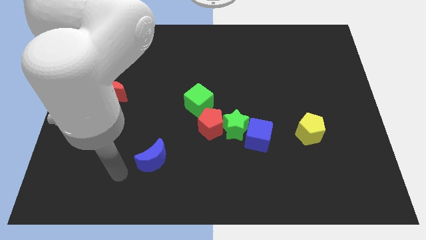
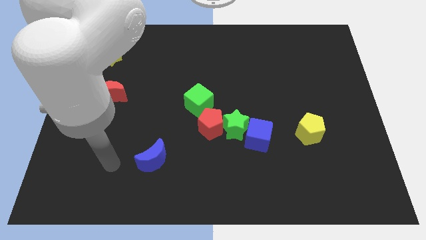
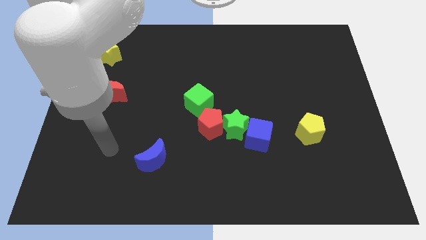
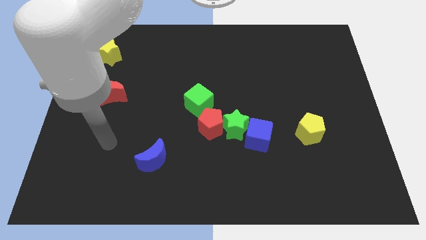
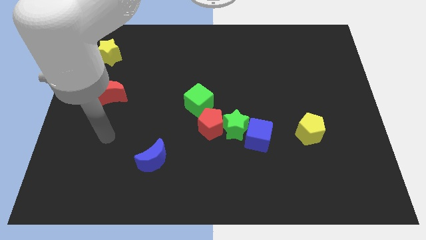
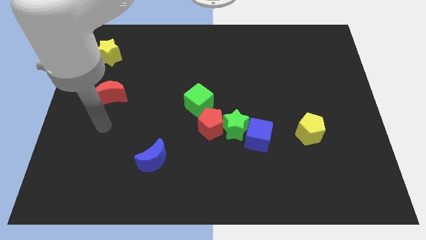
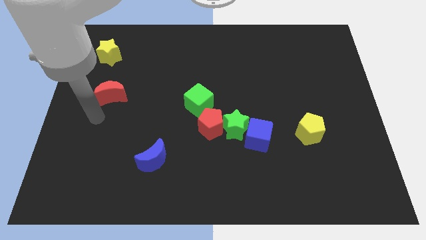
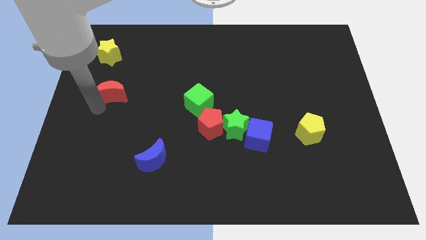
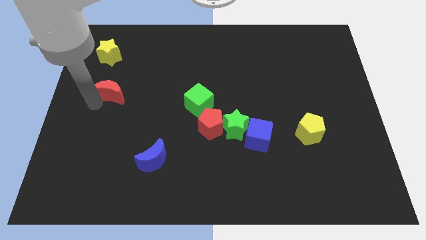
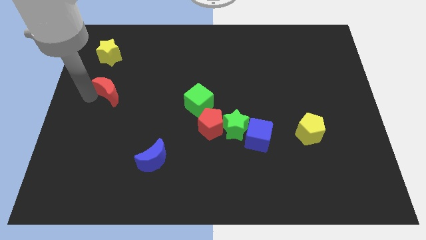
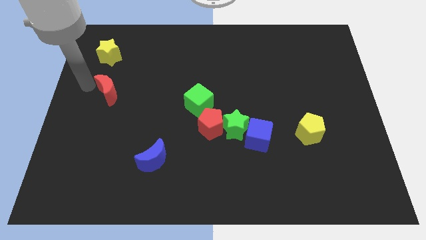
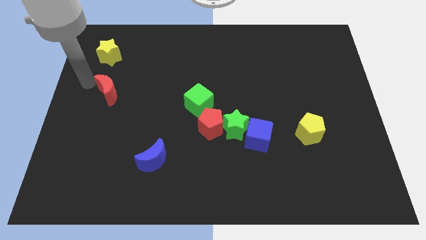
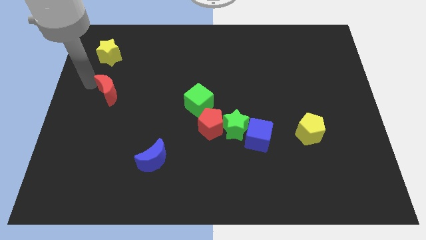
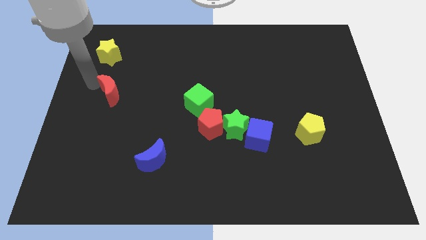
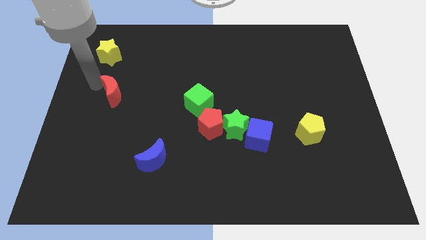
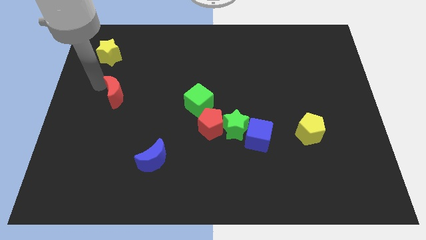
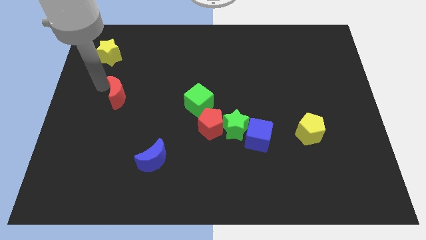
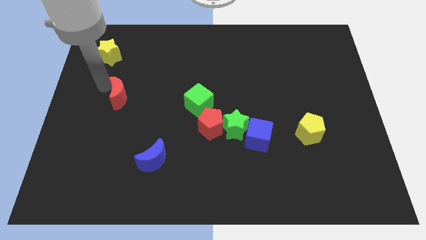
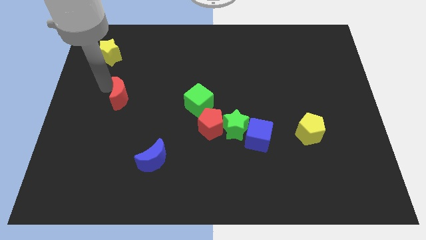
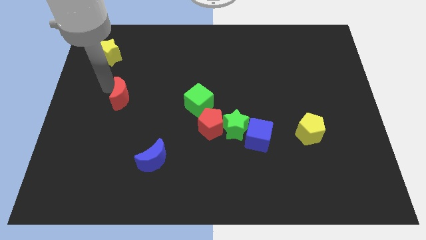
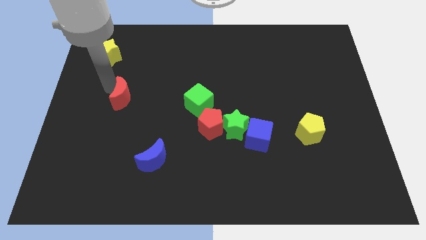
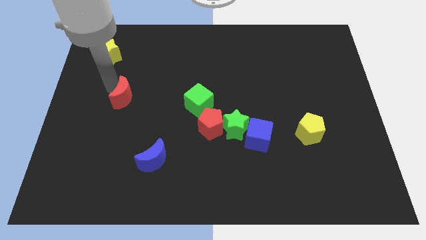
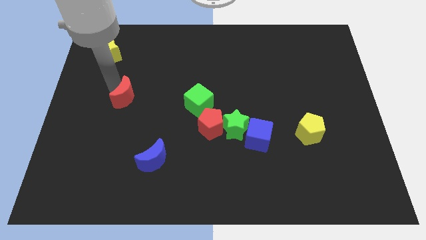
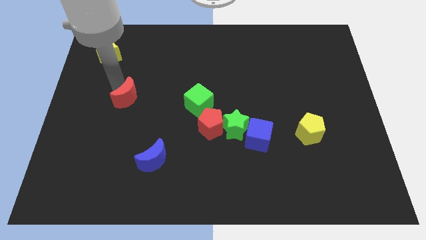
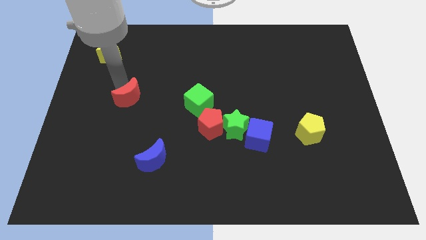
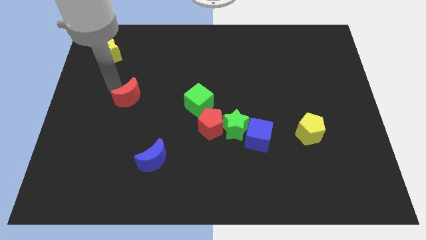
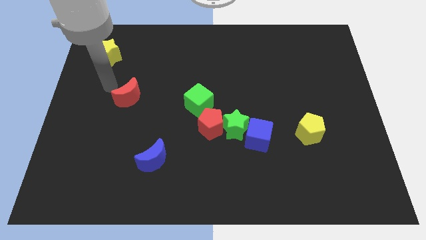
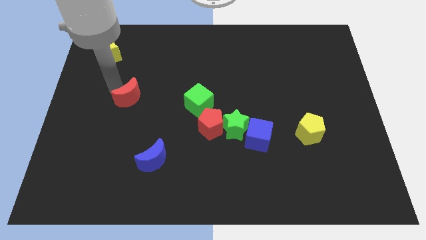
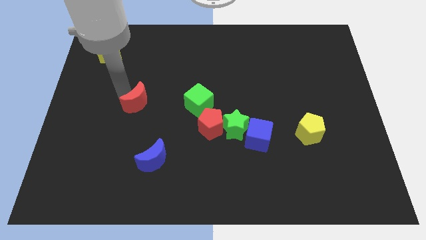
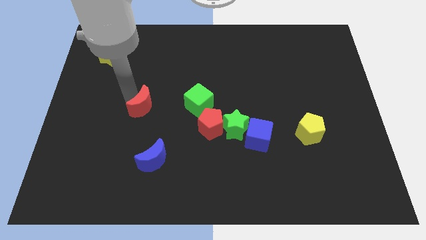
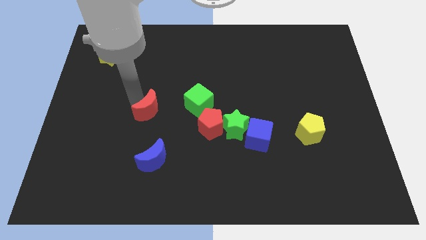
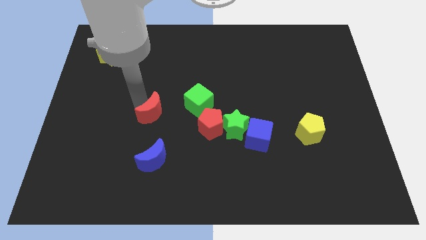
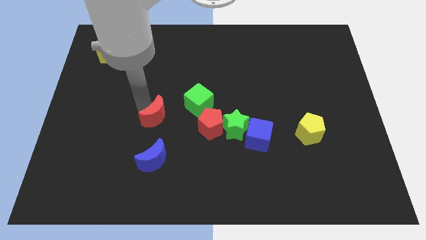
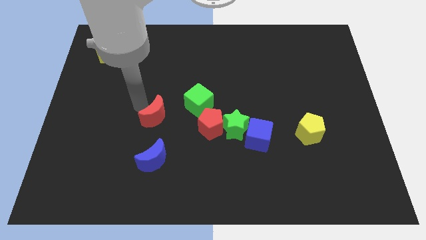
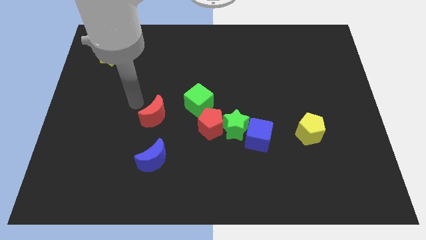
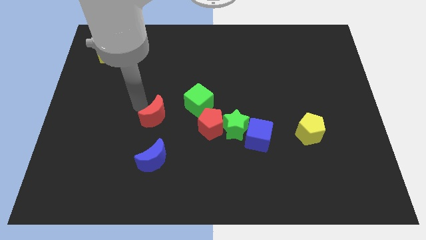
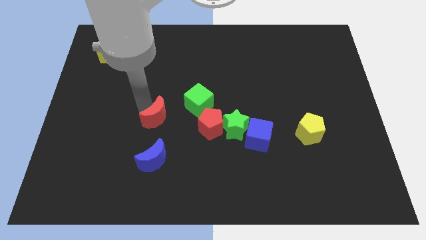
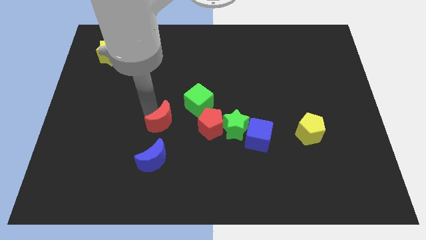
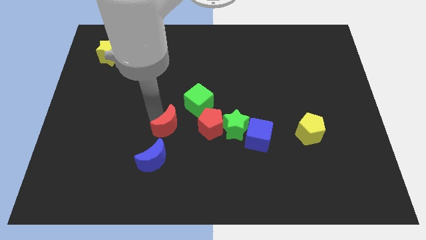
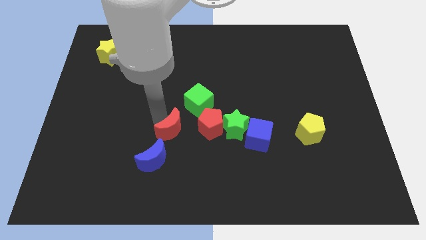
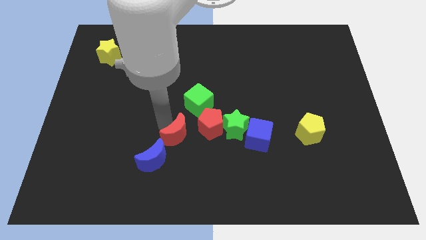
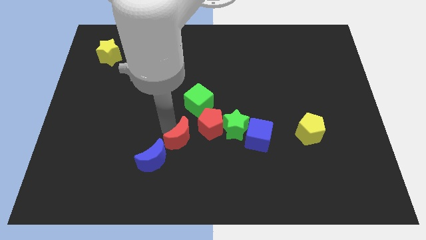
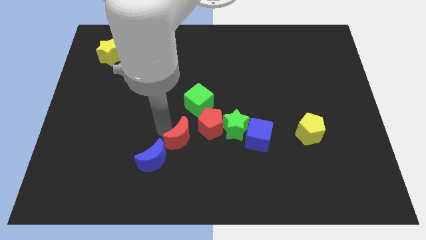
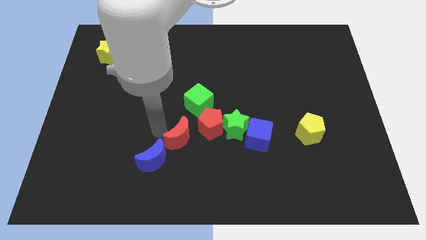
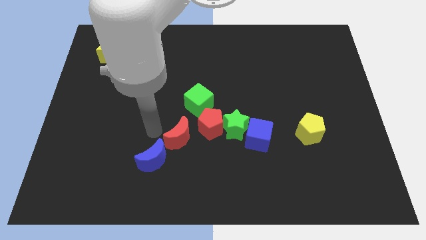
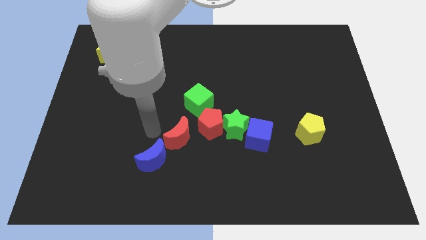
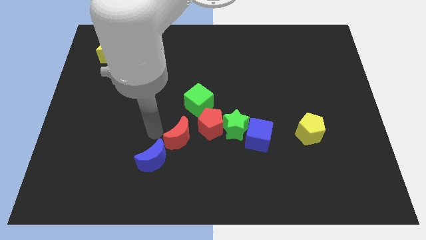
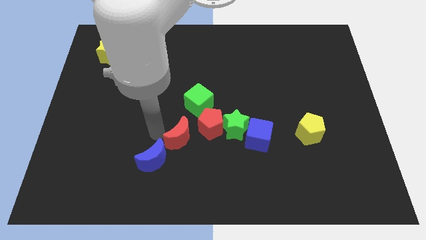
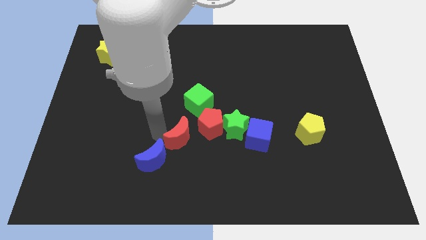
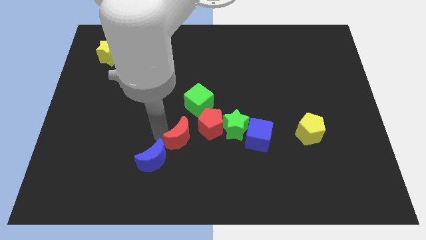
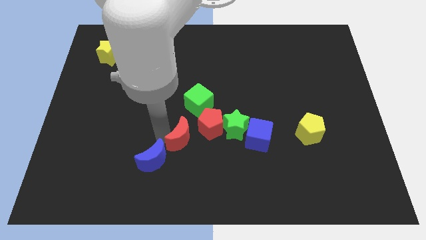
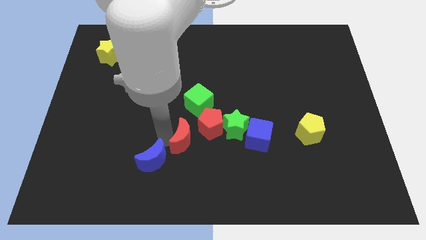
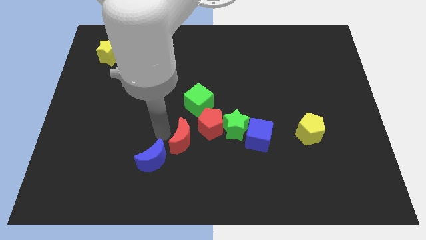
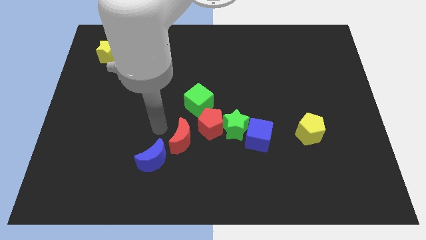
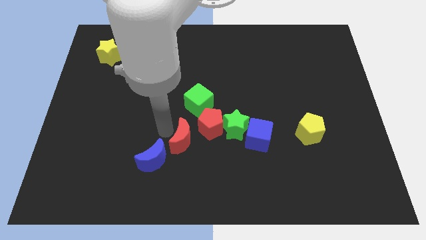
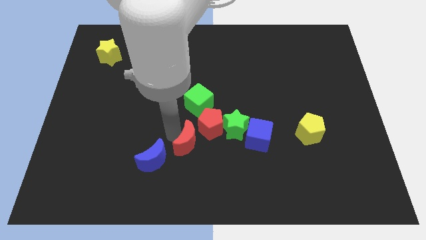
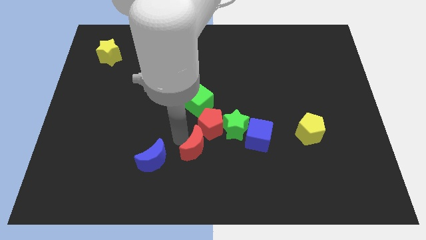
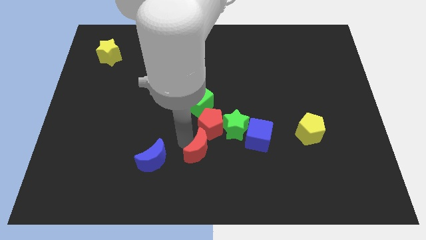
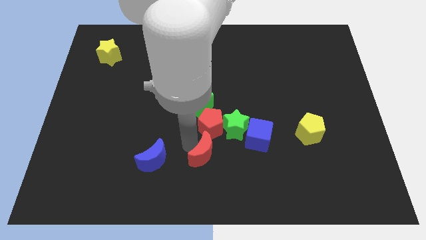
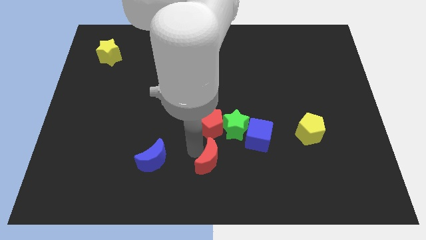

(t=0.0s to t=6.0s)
slide the red moon to the bottom left side of the blue cube

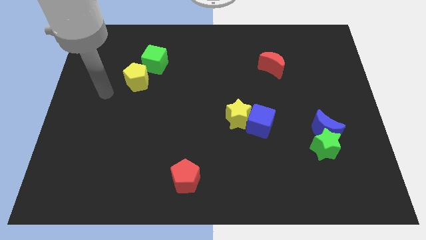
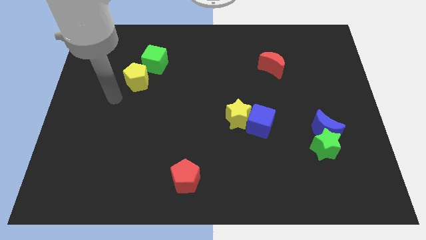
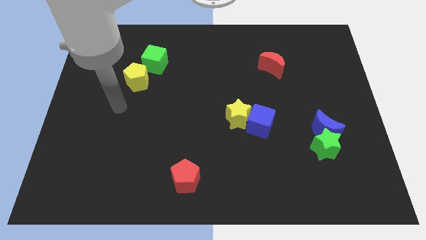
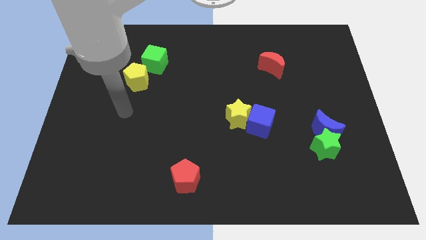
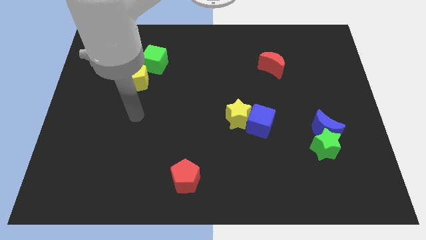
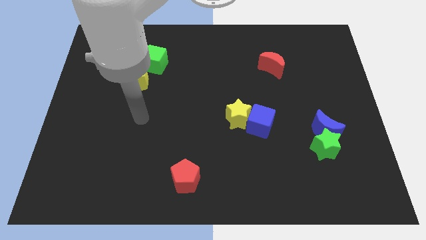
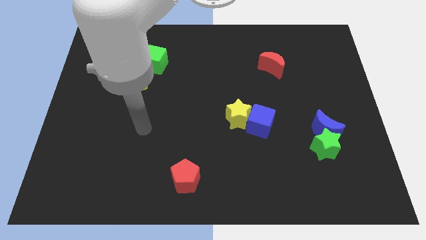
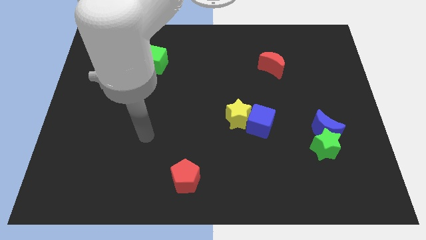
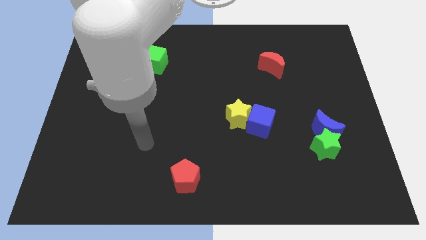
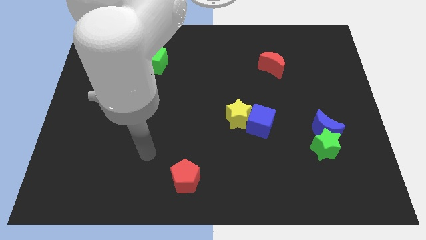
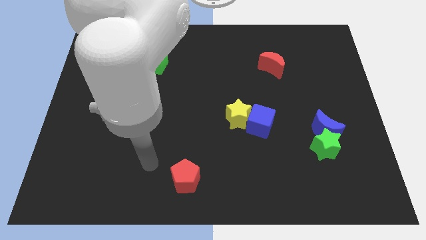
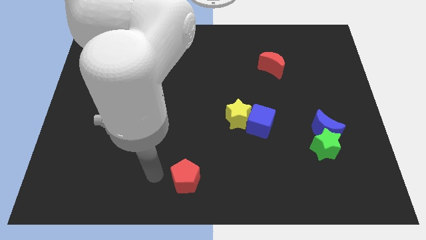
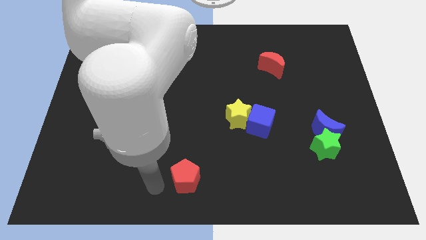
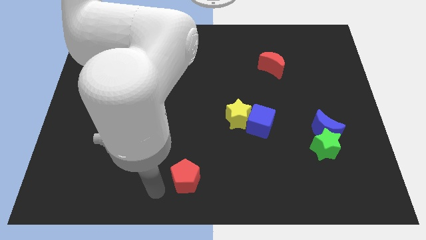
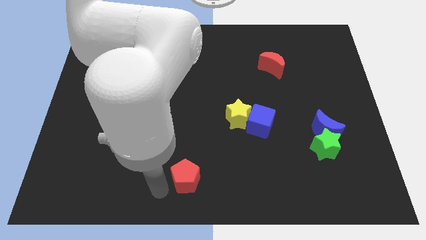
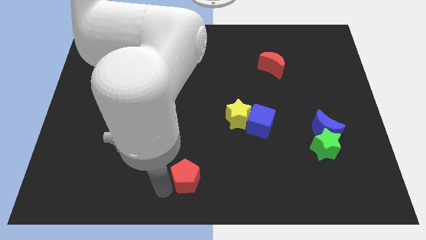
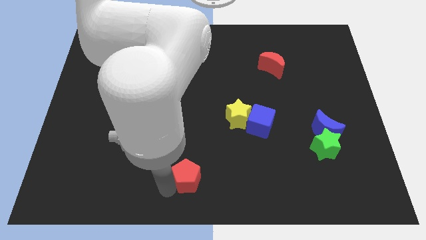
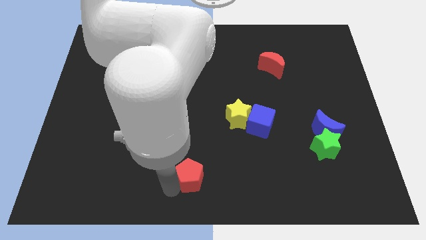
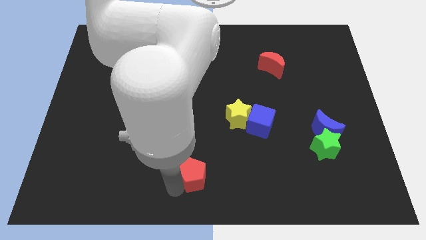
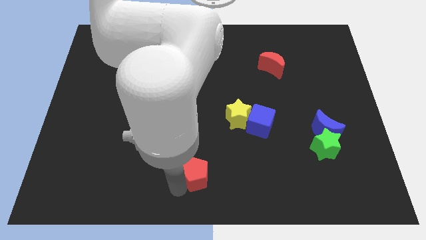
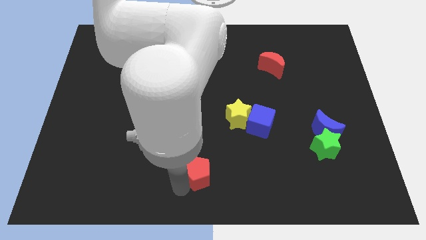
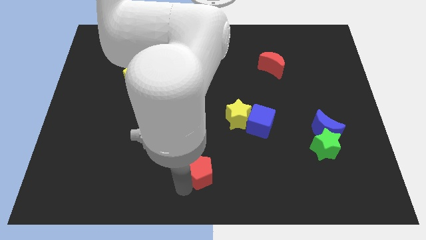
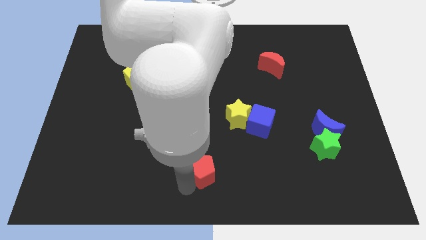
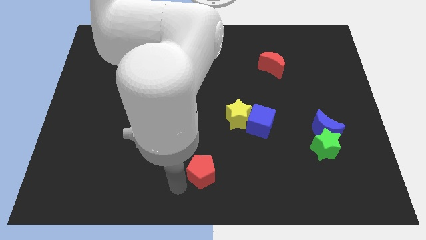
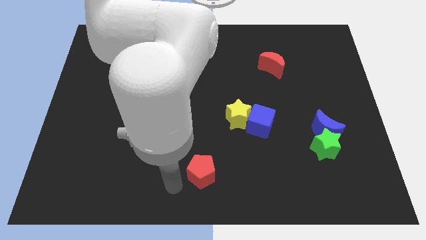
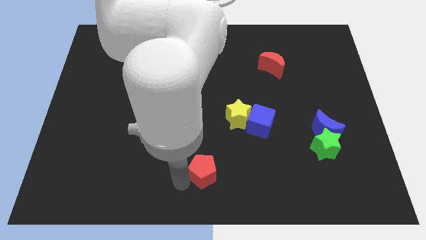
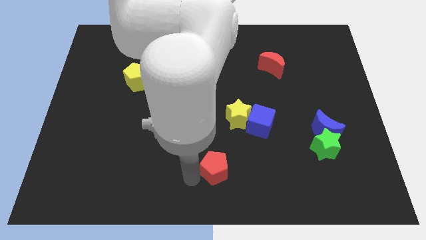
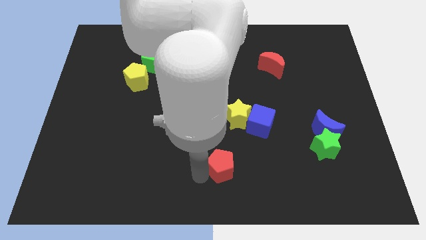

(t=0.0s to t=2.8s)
put the red pentagon to the bottom side of the yellow star
